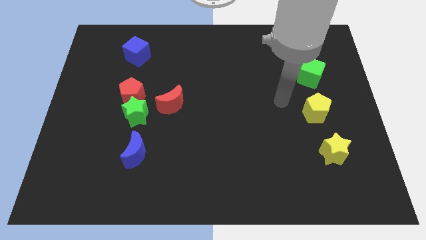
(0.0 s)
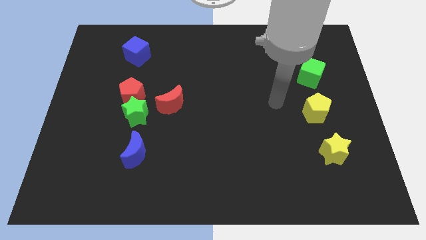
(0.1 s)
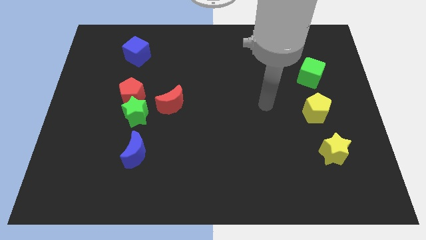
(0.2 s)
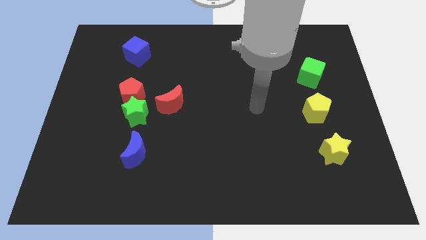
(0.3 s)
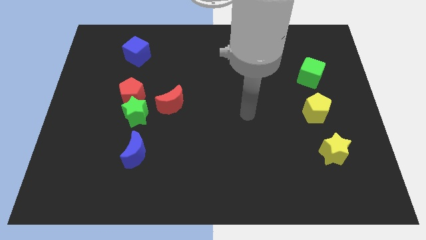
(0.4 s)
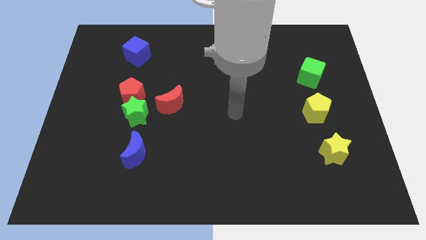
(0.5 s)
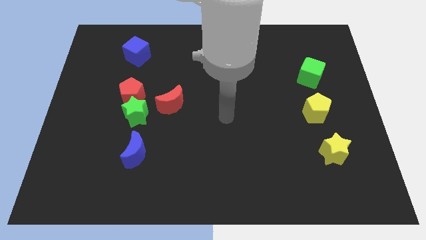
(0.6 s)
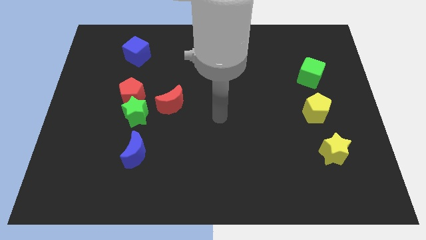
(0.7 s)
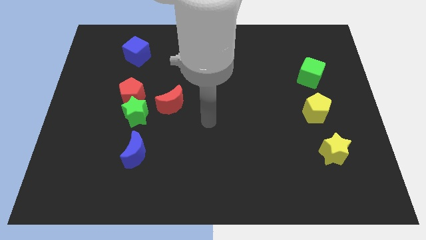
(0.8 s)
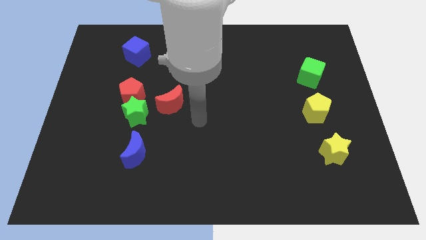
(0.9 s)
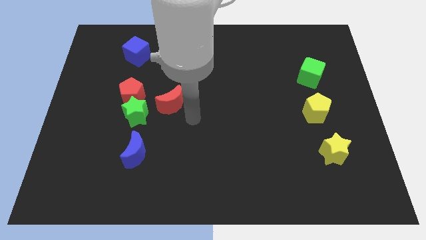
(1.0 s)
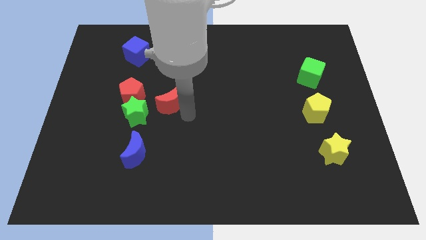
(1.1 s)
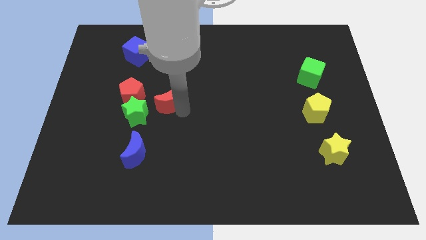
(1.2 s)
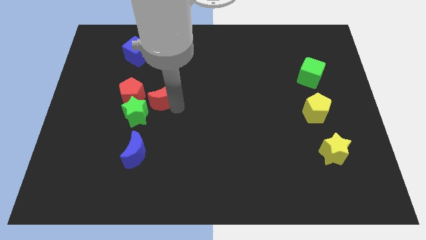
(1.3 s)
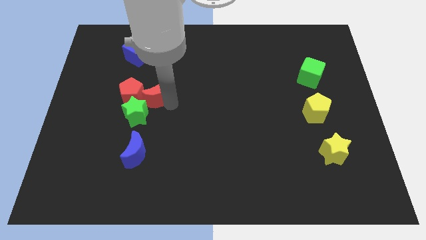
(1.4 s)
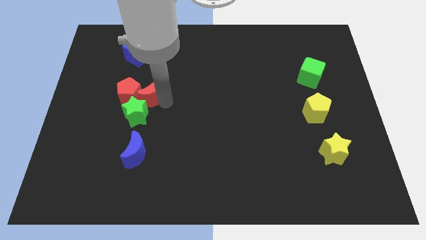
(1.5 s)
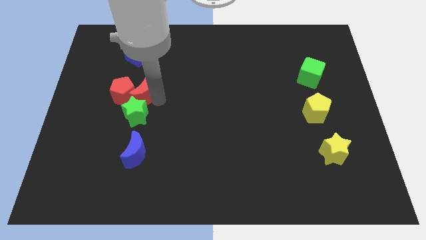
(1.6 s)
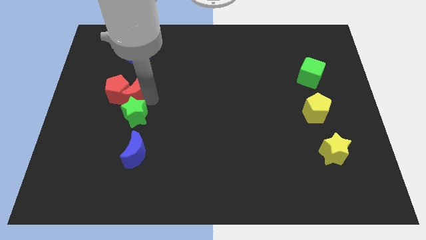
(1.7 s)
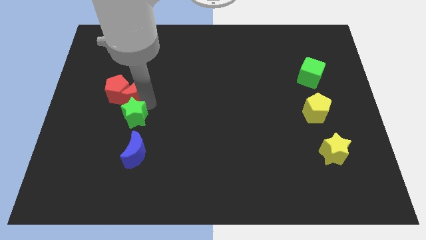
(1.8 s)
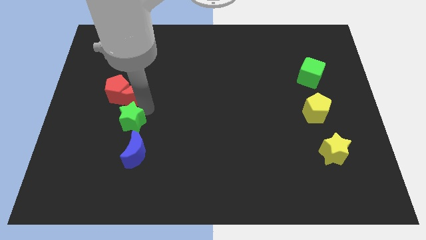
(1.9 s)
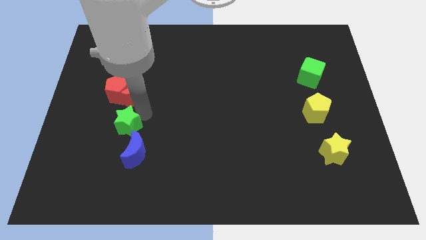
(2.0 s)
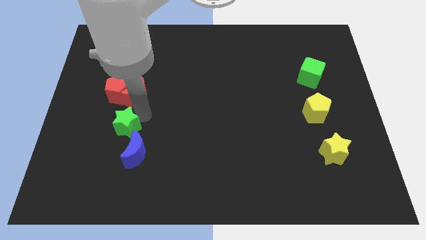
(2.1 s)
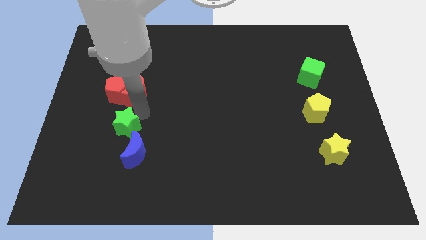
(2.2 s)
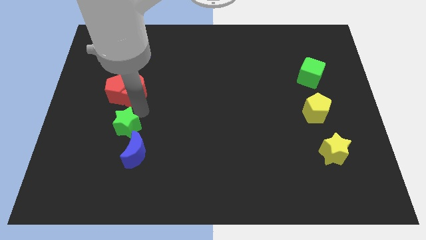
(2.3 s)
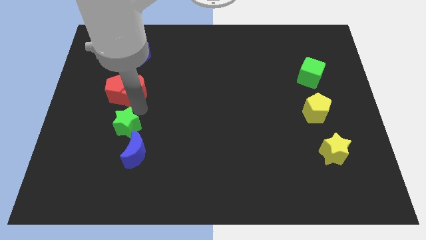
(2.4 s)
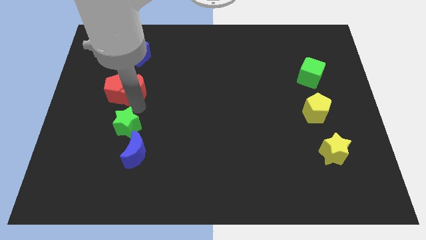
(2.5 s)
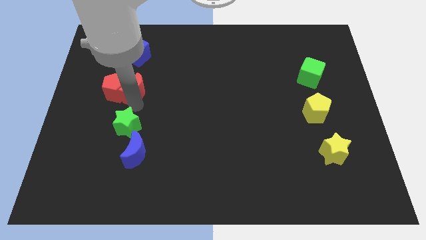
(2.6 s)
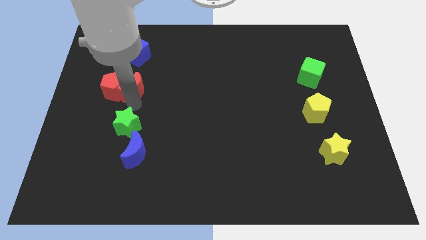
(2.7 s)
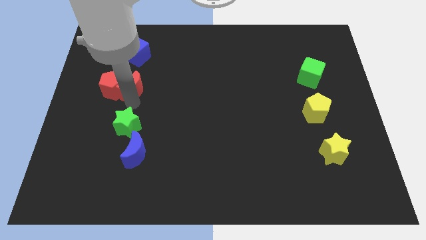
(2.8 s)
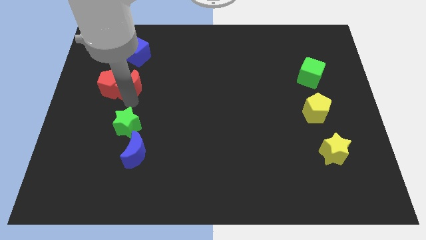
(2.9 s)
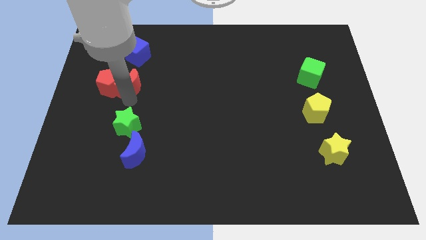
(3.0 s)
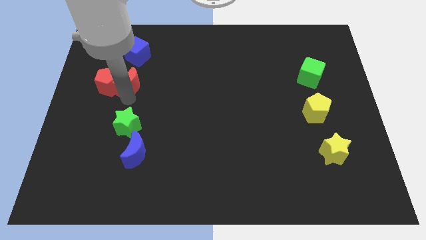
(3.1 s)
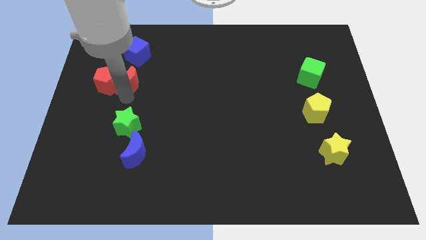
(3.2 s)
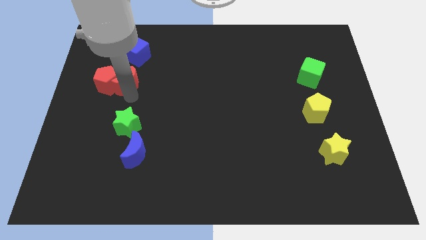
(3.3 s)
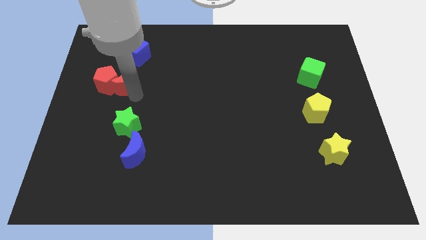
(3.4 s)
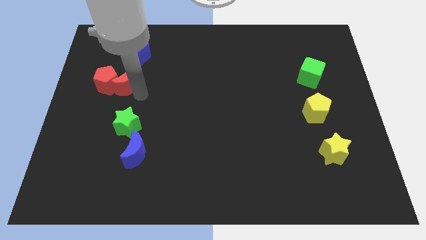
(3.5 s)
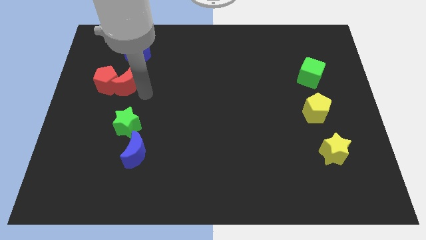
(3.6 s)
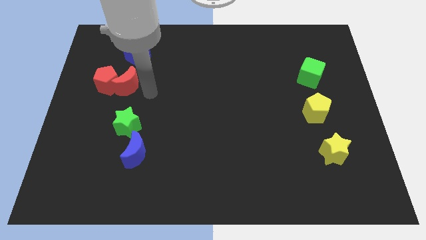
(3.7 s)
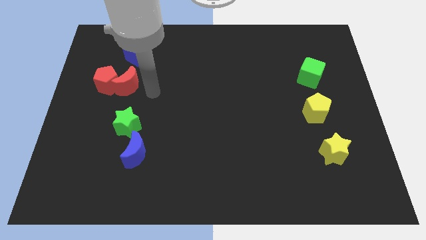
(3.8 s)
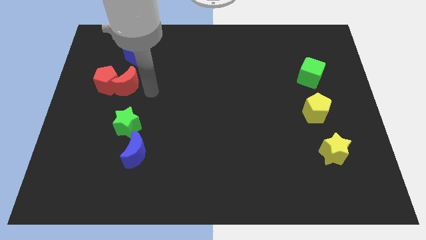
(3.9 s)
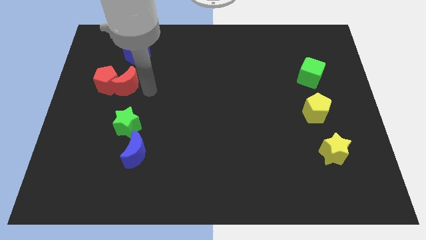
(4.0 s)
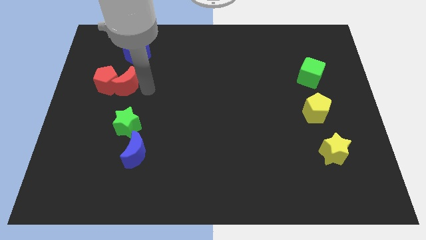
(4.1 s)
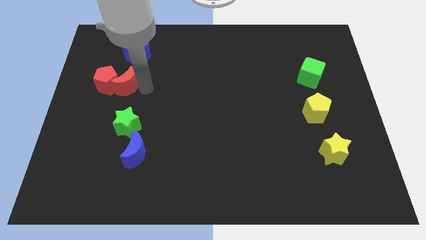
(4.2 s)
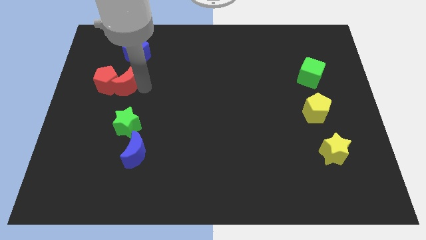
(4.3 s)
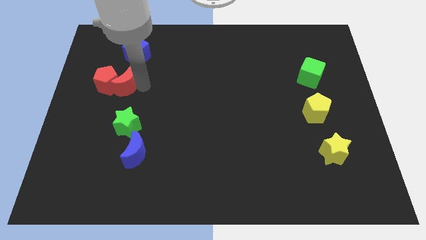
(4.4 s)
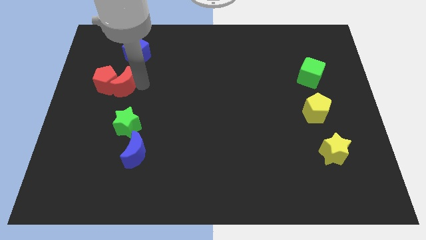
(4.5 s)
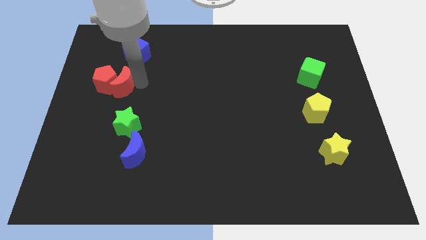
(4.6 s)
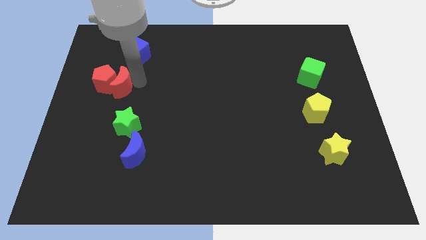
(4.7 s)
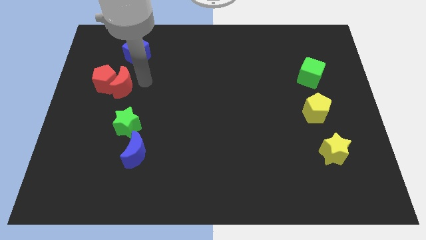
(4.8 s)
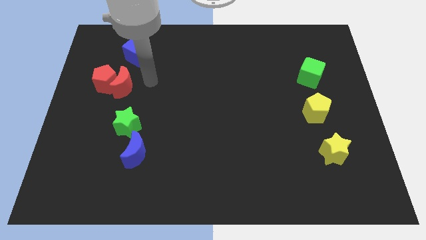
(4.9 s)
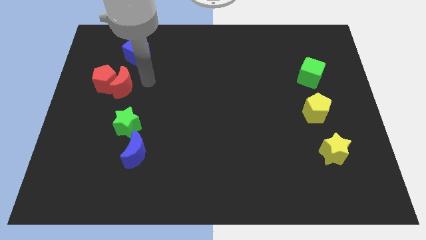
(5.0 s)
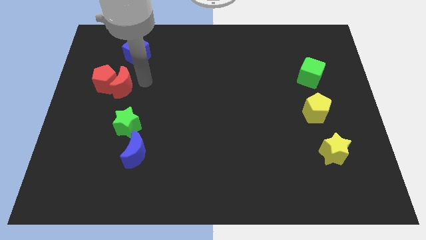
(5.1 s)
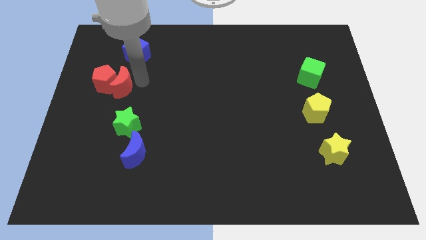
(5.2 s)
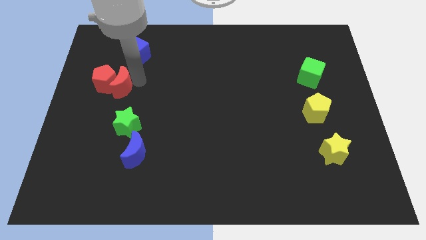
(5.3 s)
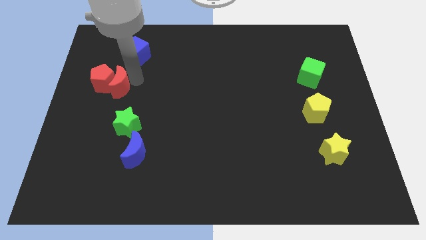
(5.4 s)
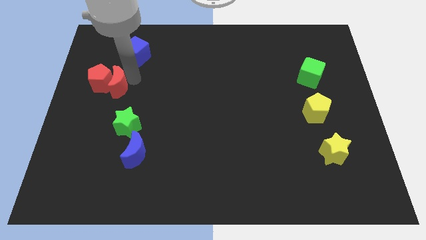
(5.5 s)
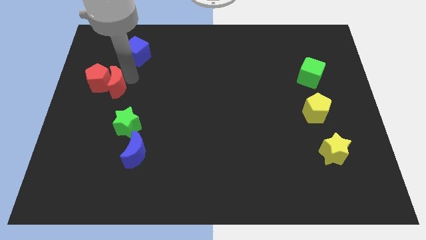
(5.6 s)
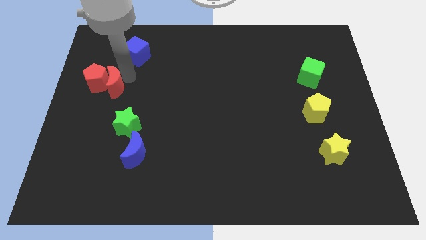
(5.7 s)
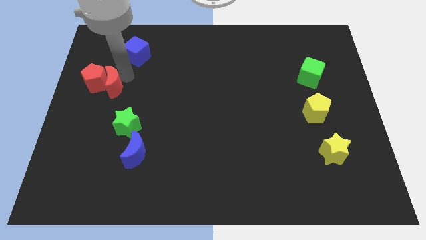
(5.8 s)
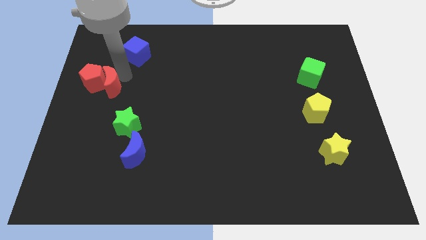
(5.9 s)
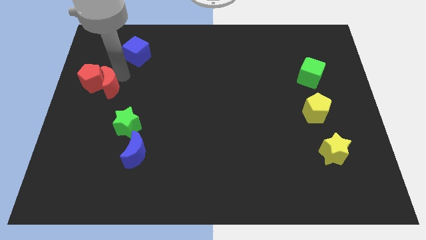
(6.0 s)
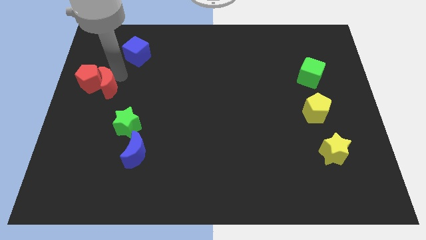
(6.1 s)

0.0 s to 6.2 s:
slide the red moon to the left side
